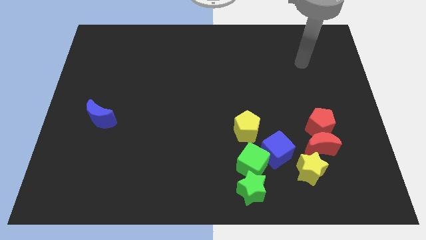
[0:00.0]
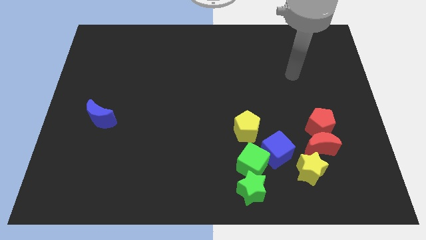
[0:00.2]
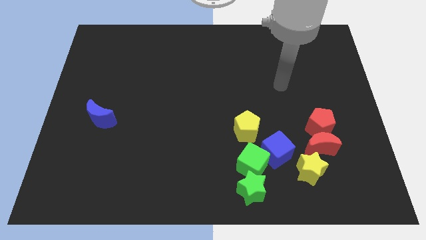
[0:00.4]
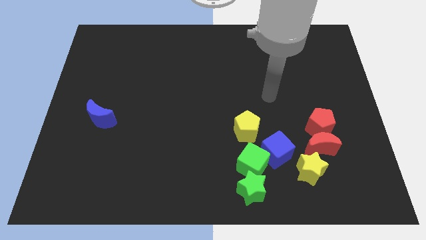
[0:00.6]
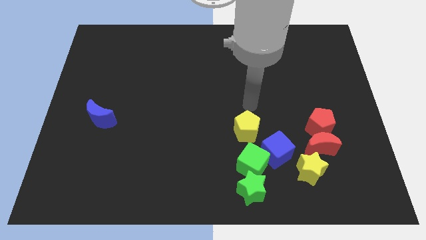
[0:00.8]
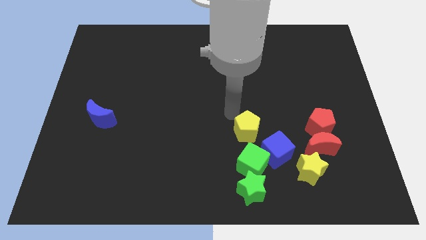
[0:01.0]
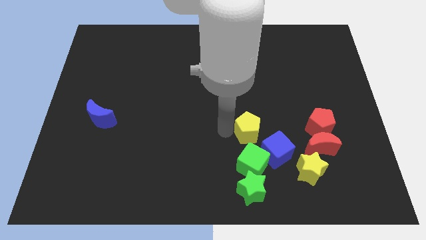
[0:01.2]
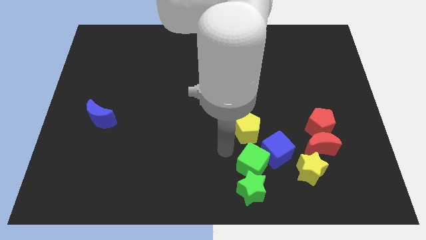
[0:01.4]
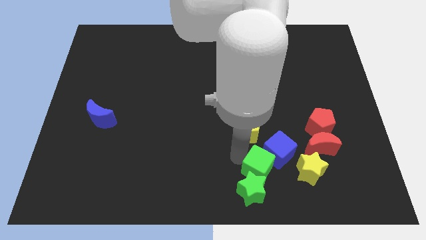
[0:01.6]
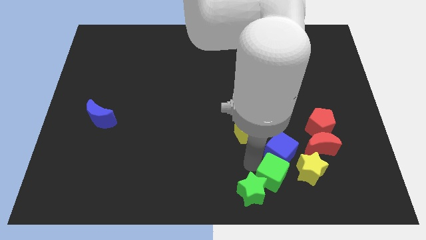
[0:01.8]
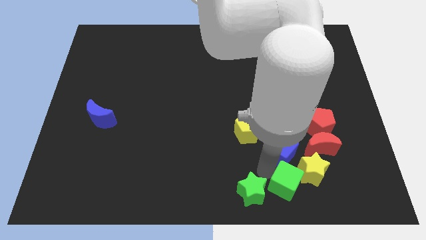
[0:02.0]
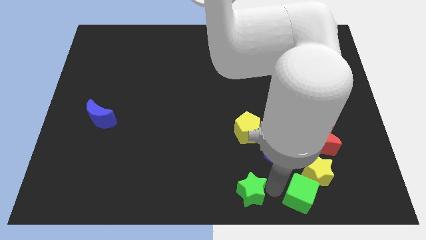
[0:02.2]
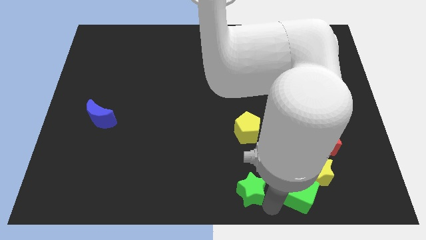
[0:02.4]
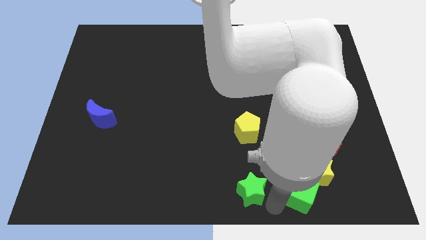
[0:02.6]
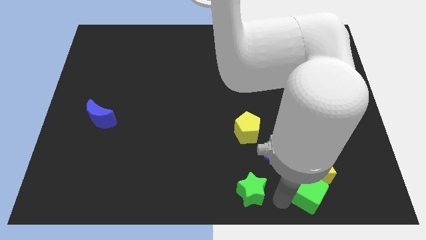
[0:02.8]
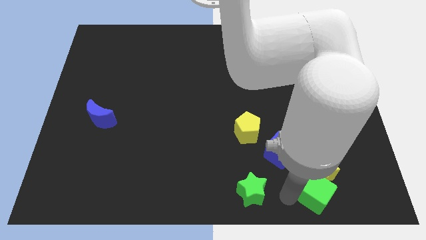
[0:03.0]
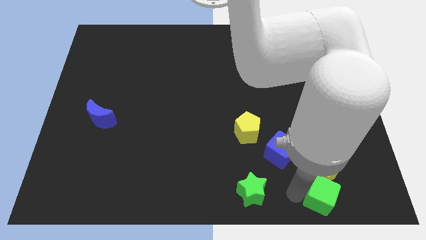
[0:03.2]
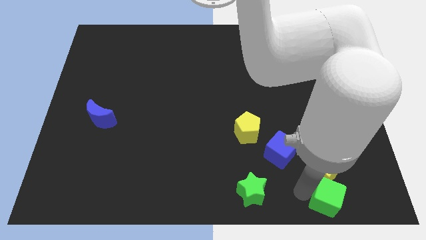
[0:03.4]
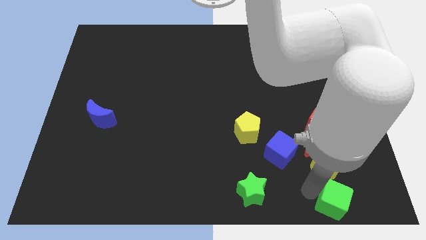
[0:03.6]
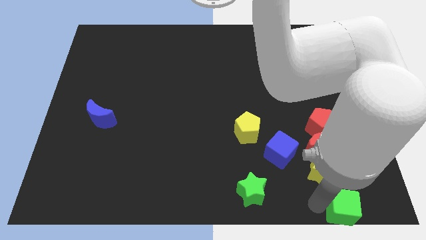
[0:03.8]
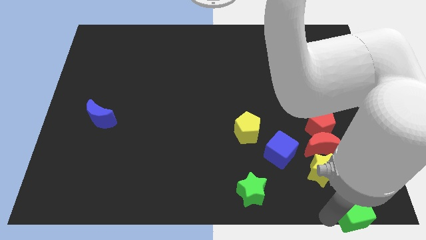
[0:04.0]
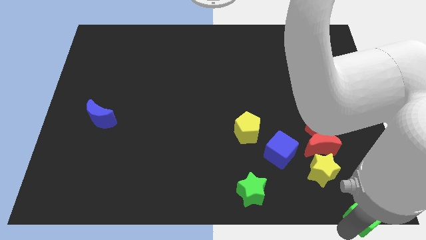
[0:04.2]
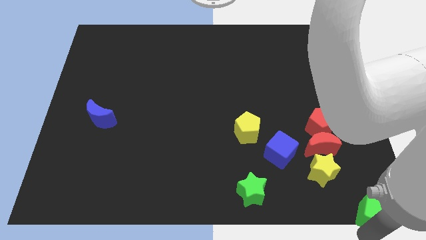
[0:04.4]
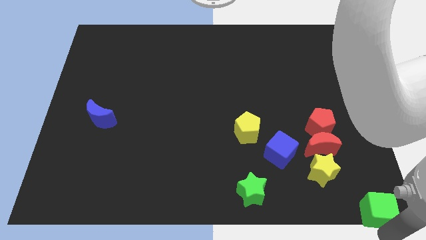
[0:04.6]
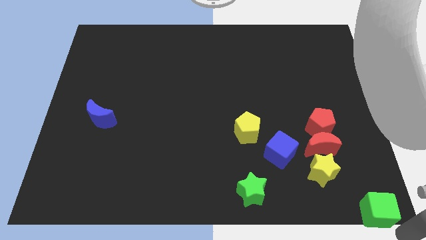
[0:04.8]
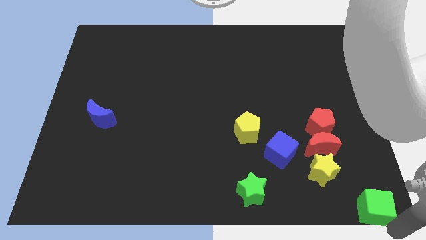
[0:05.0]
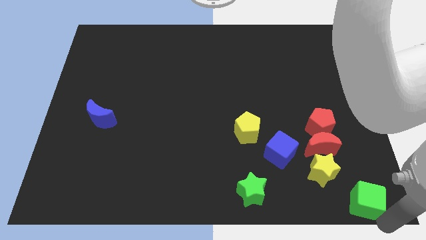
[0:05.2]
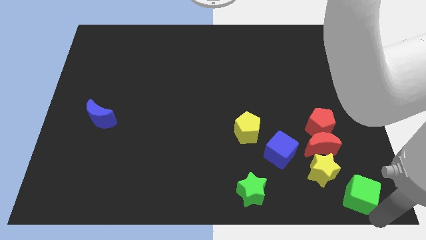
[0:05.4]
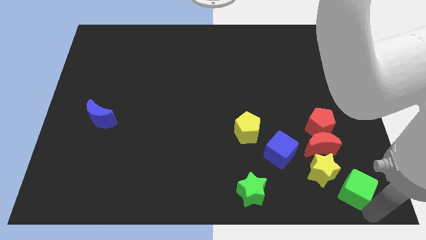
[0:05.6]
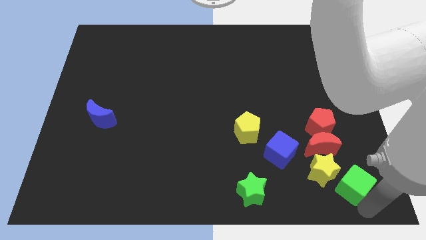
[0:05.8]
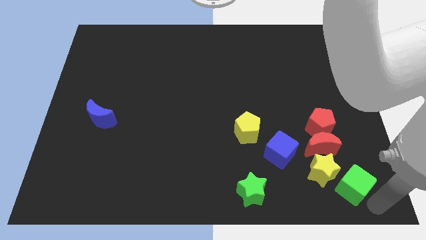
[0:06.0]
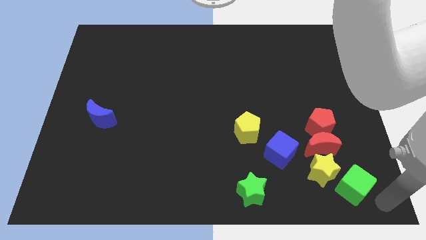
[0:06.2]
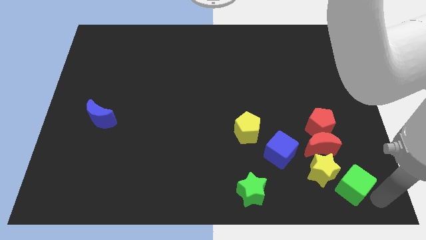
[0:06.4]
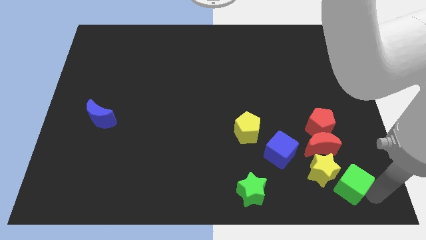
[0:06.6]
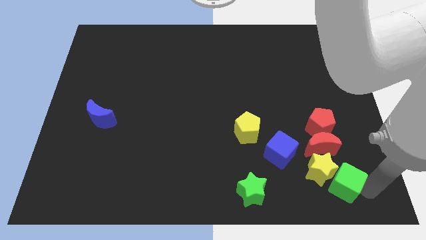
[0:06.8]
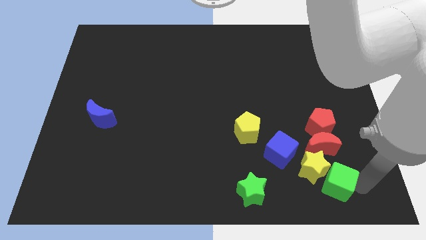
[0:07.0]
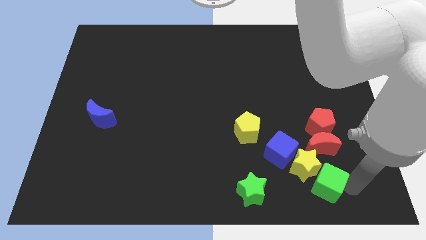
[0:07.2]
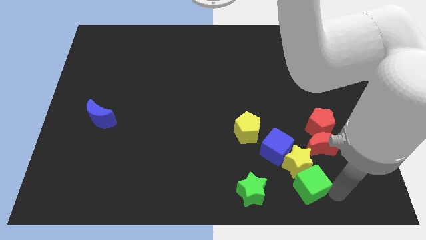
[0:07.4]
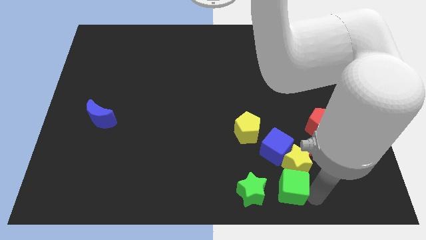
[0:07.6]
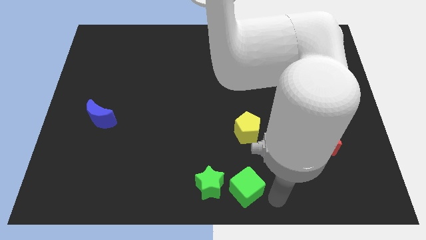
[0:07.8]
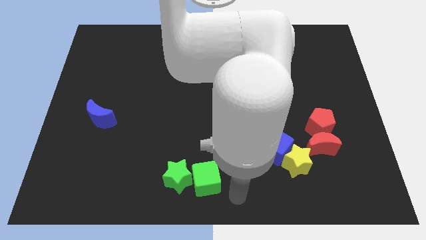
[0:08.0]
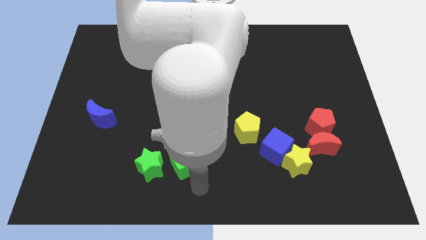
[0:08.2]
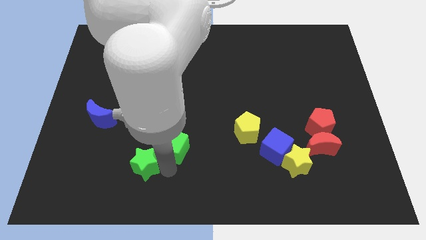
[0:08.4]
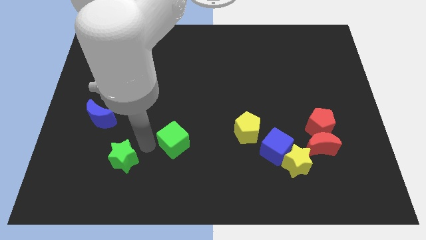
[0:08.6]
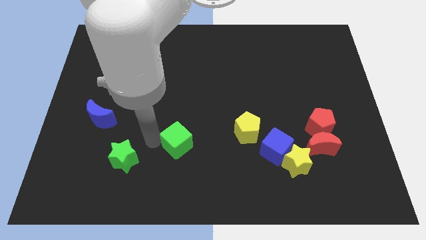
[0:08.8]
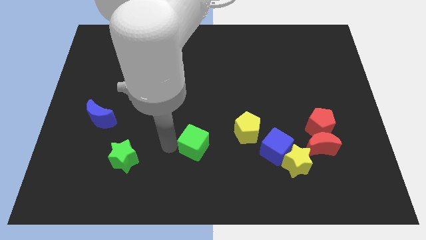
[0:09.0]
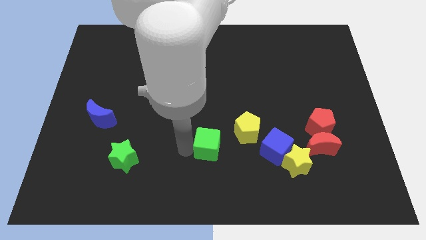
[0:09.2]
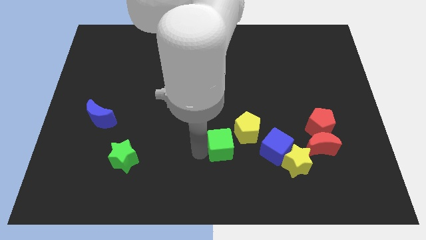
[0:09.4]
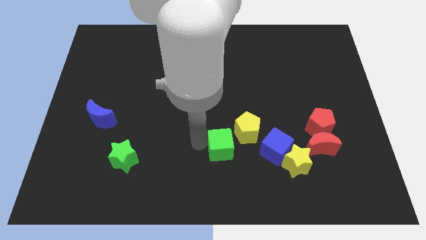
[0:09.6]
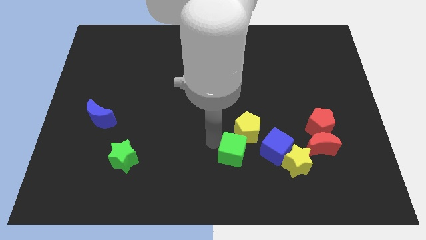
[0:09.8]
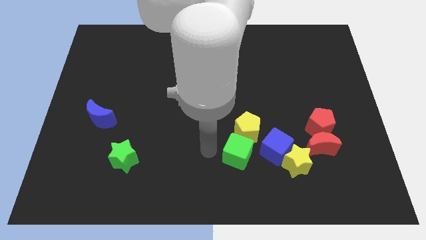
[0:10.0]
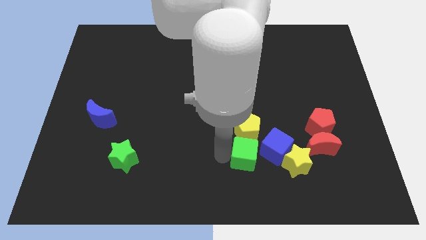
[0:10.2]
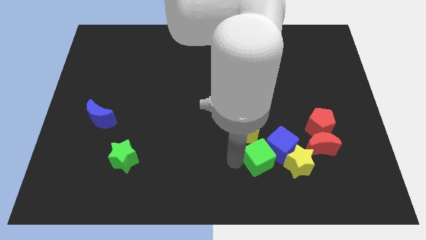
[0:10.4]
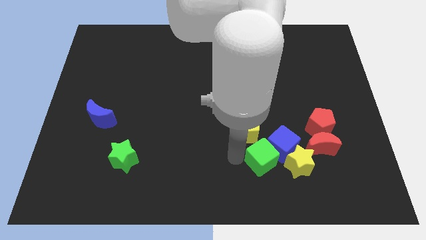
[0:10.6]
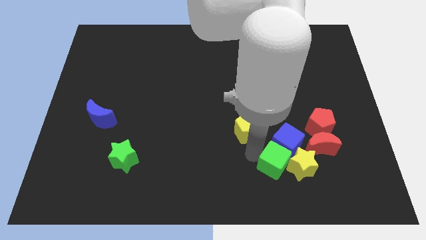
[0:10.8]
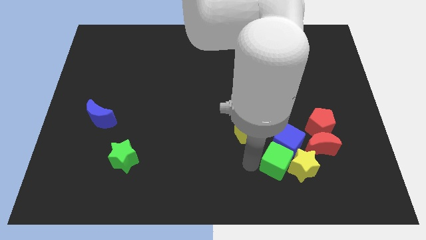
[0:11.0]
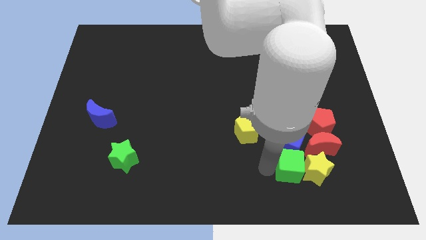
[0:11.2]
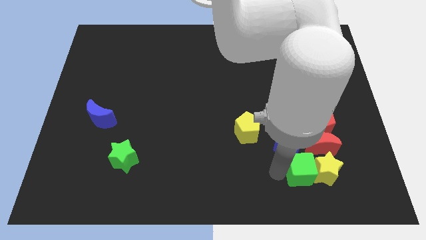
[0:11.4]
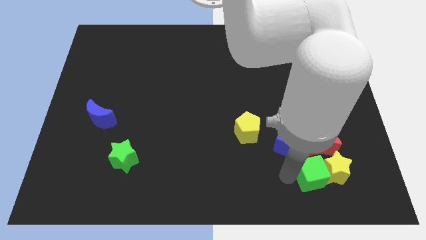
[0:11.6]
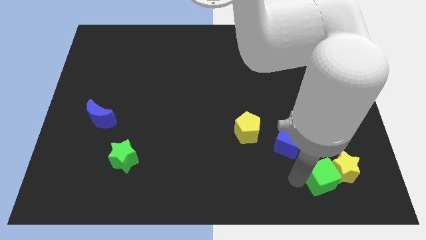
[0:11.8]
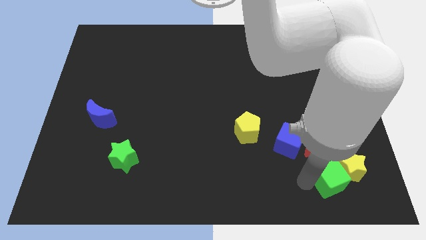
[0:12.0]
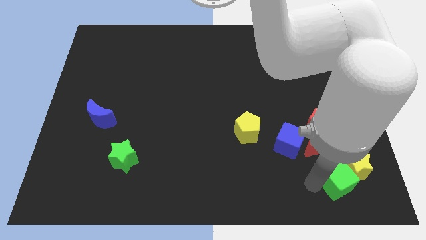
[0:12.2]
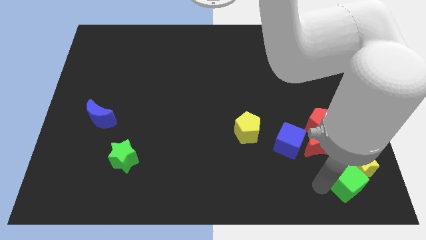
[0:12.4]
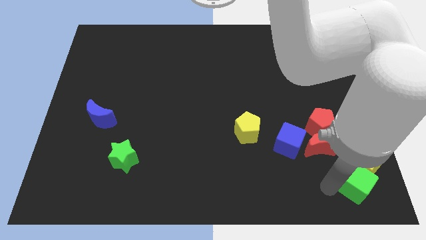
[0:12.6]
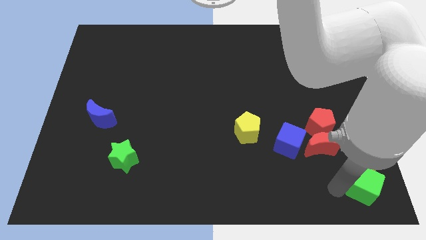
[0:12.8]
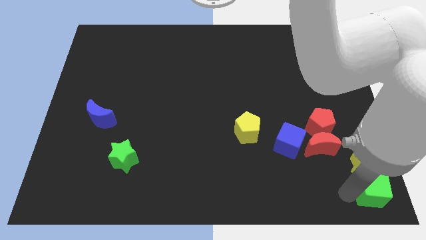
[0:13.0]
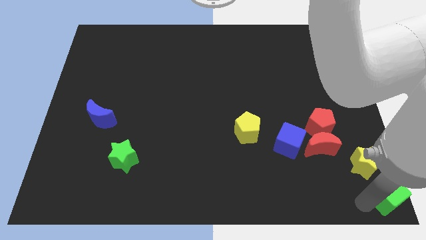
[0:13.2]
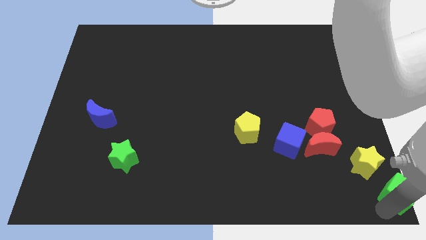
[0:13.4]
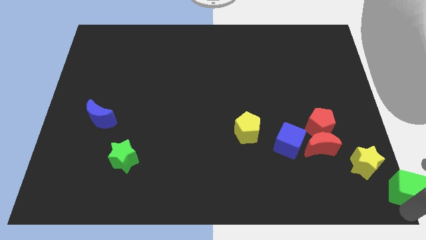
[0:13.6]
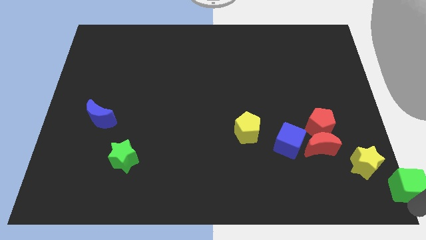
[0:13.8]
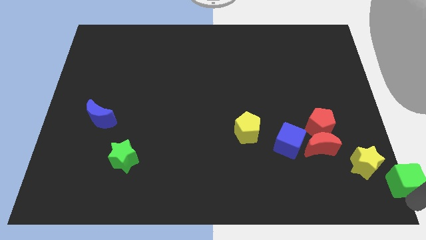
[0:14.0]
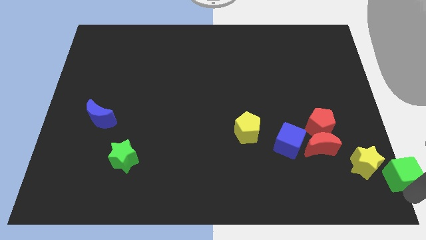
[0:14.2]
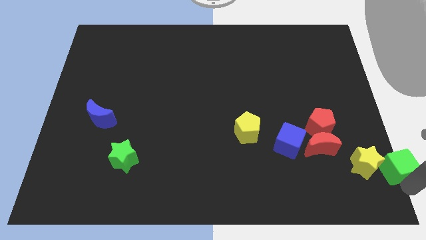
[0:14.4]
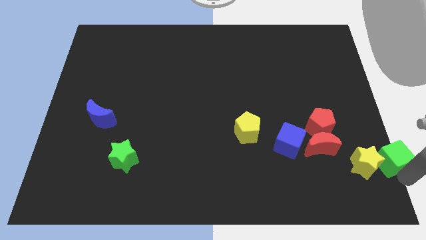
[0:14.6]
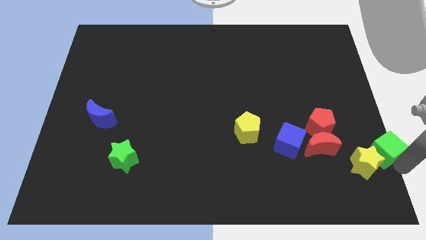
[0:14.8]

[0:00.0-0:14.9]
slide the green cube to the center right
